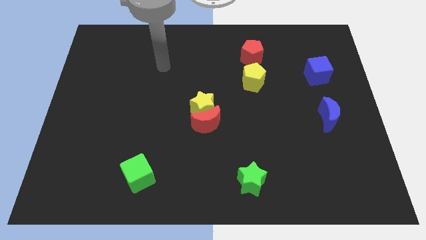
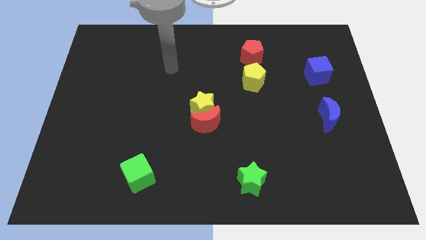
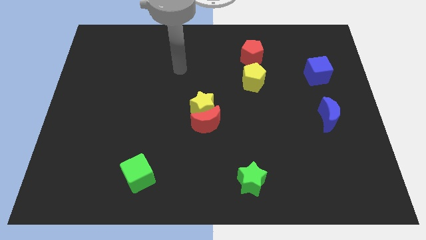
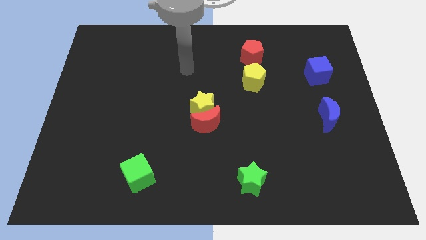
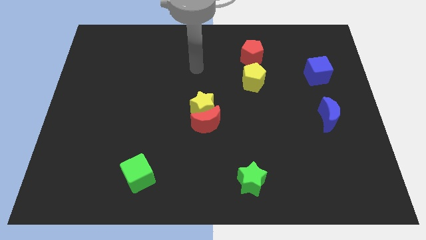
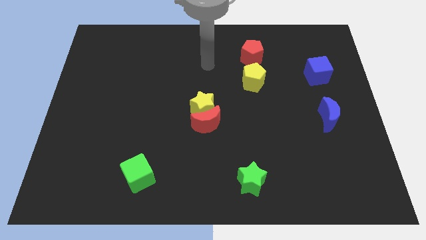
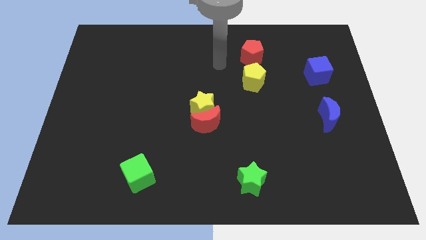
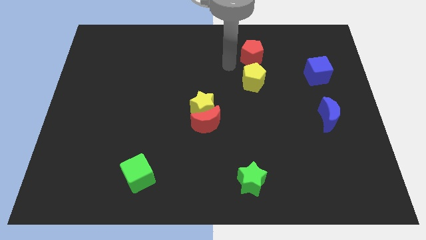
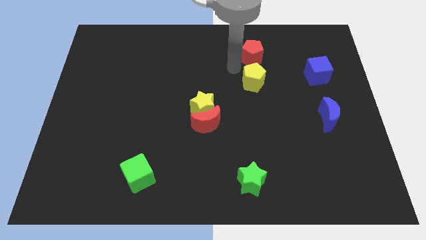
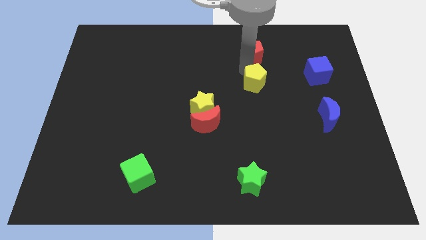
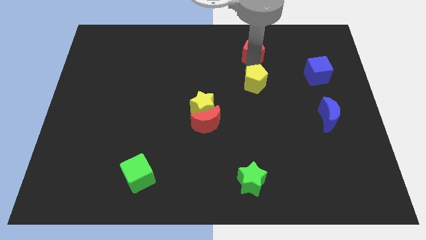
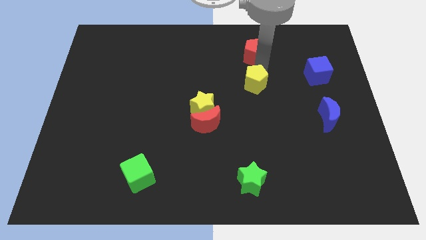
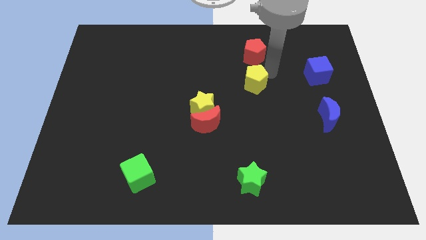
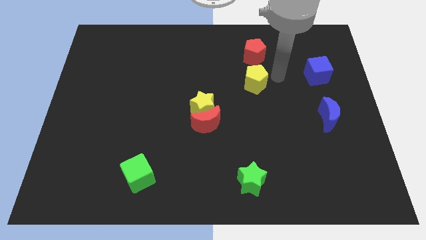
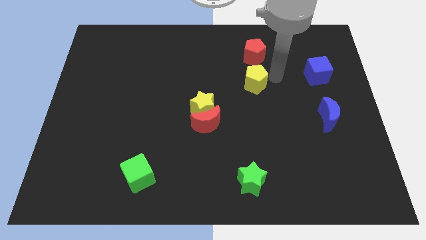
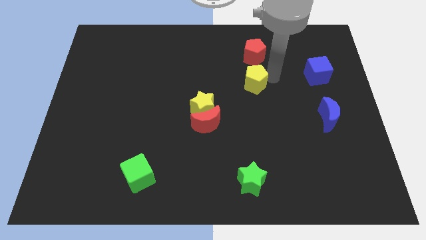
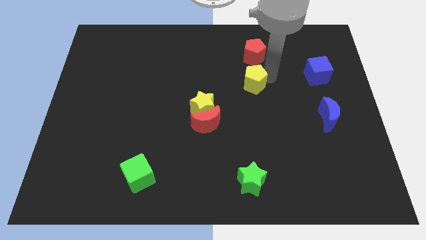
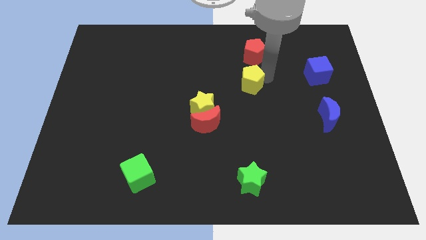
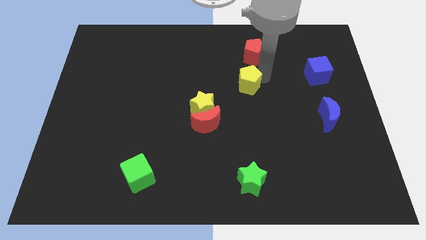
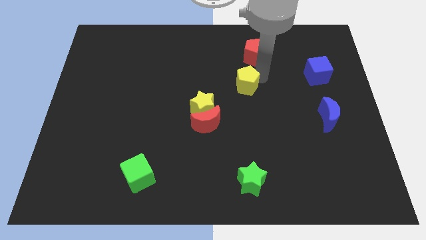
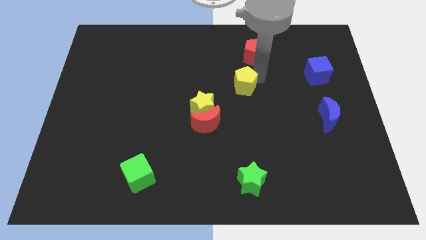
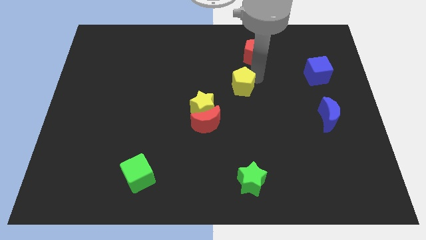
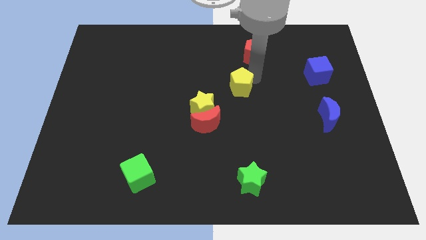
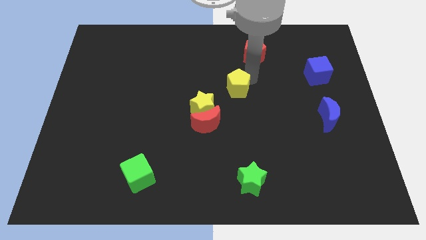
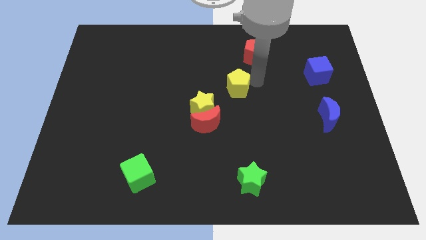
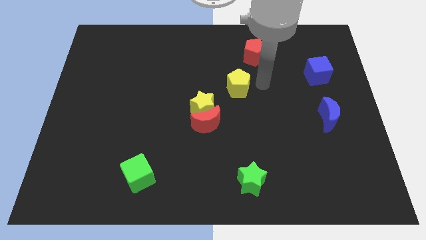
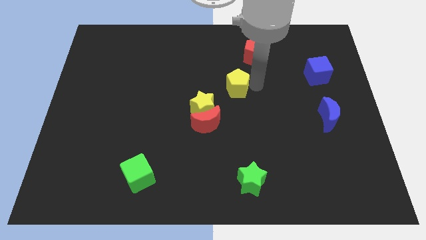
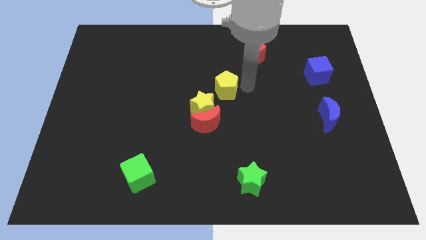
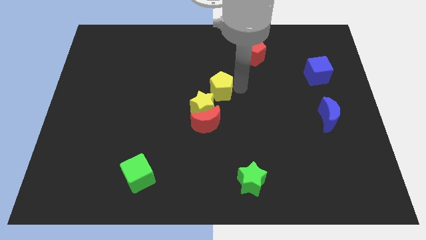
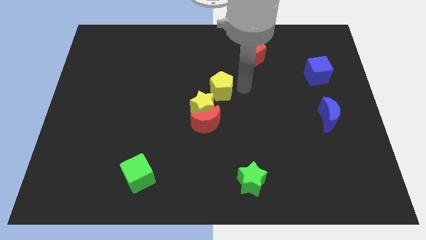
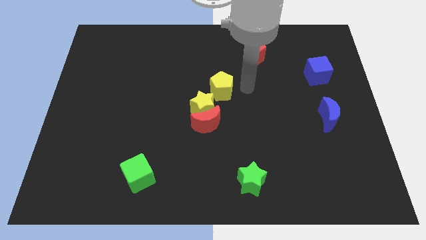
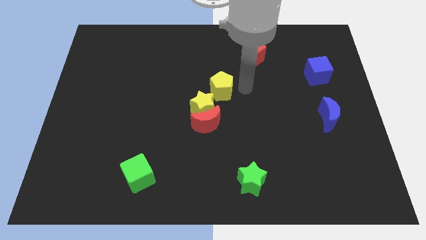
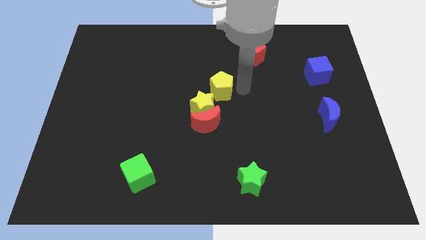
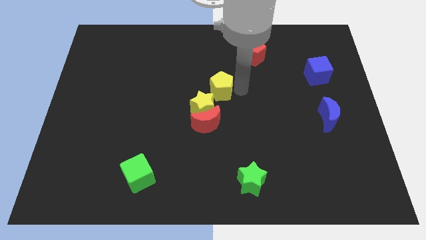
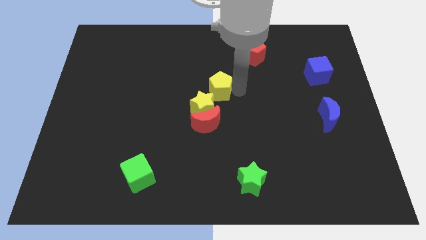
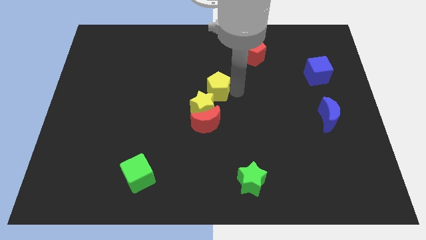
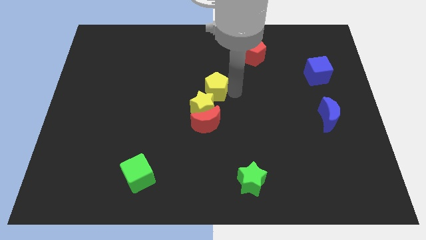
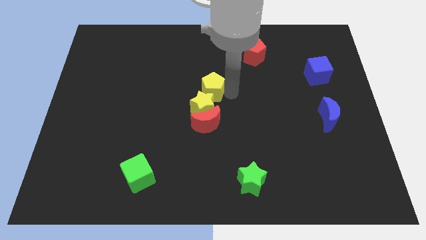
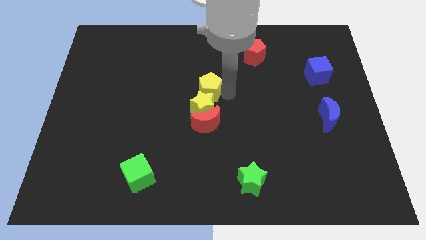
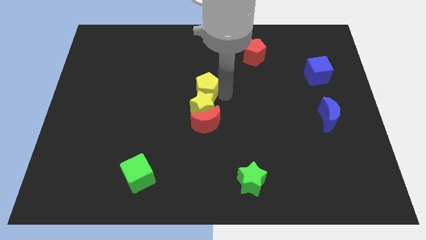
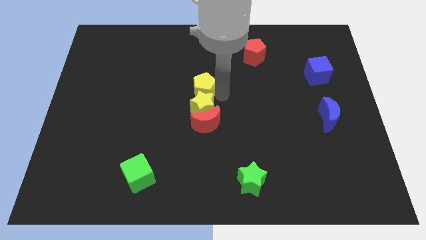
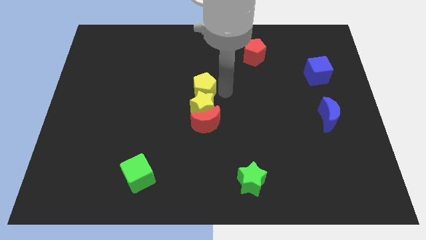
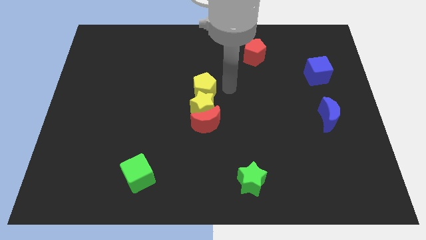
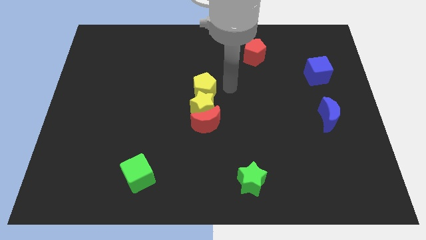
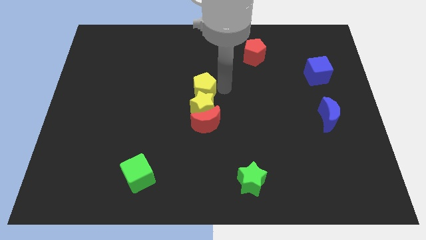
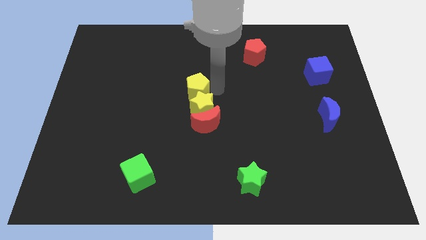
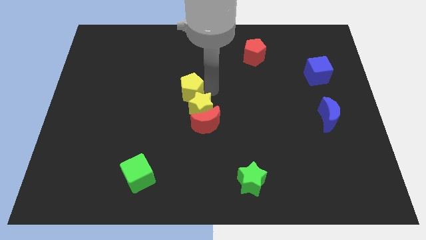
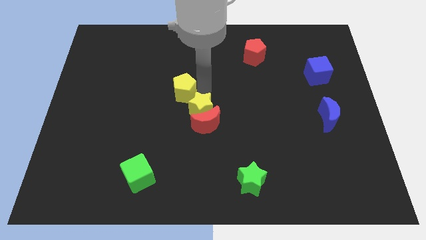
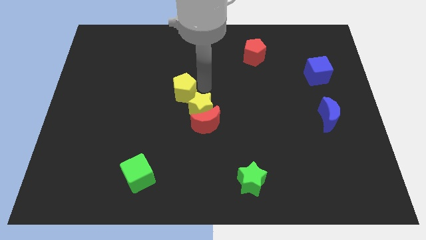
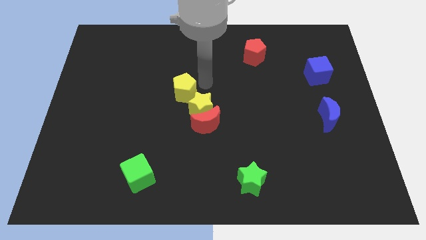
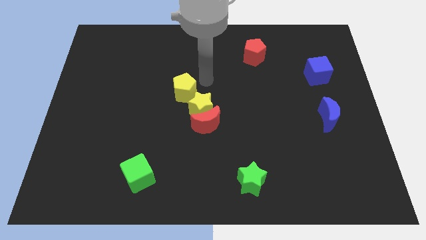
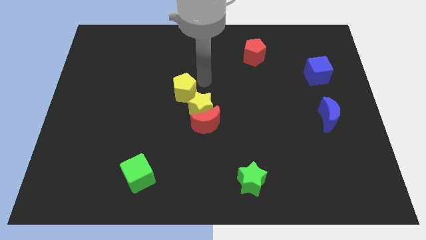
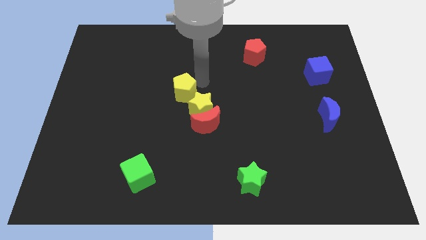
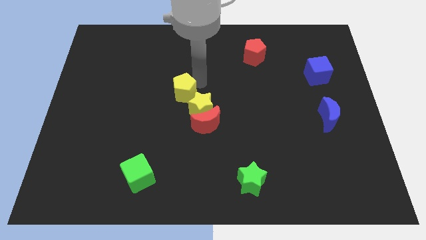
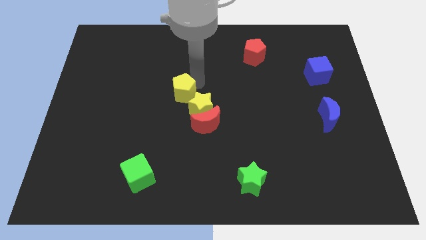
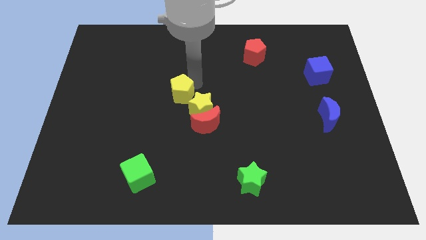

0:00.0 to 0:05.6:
move the yellow pentagon left of the yellow star

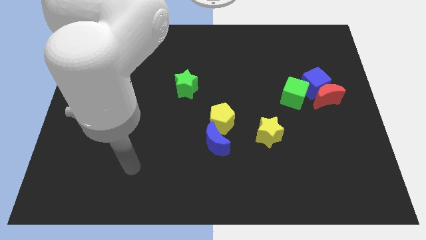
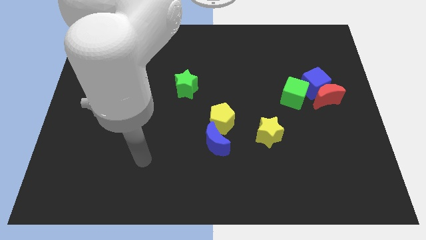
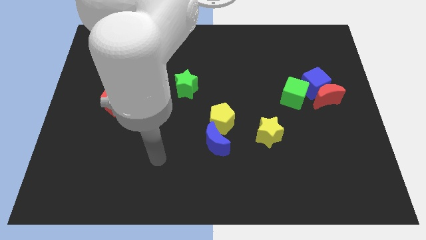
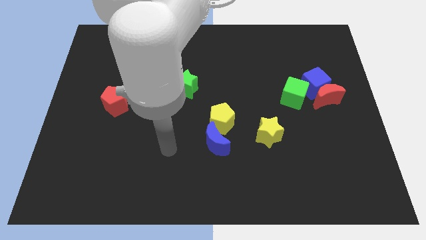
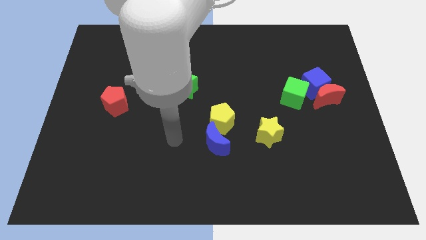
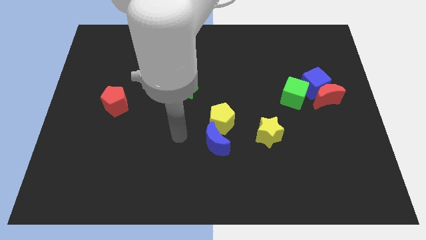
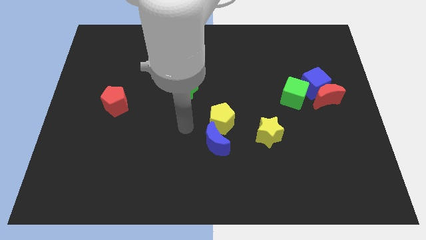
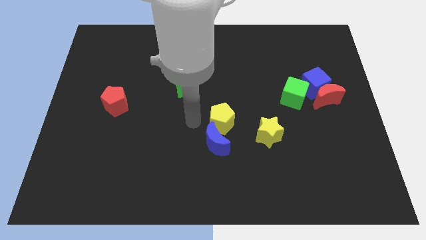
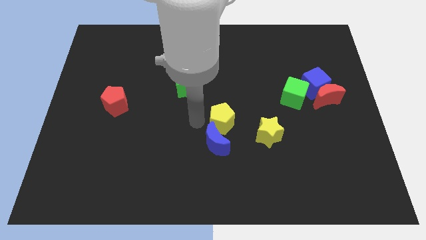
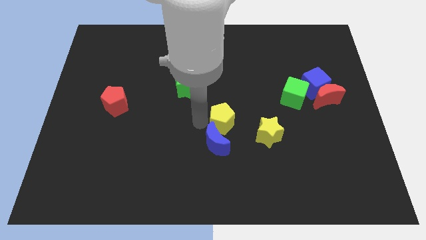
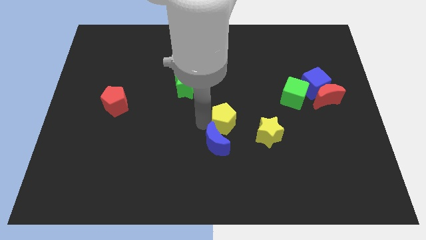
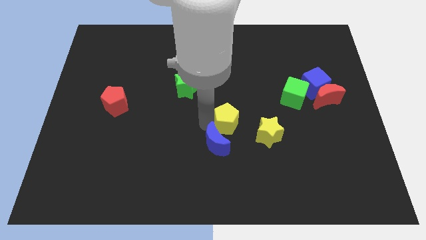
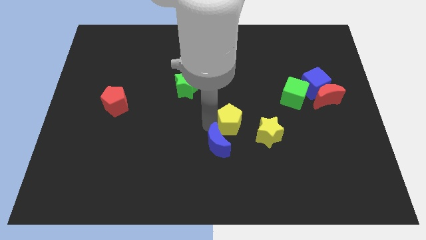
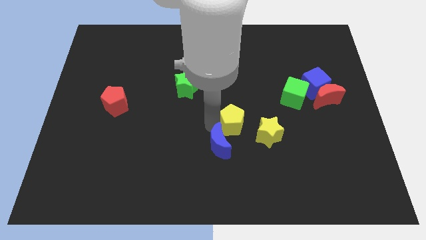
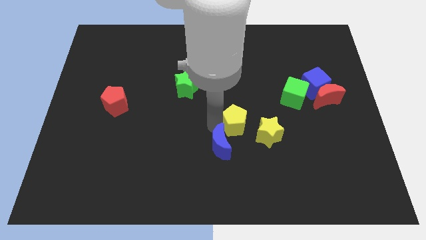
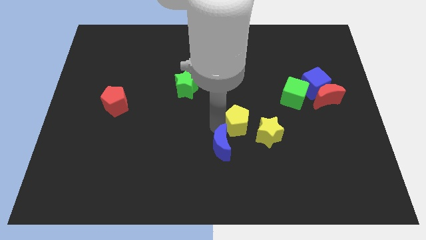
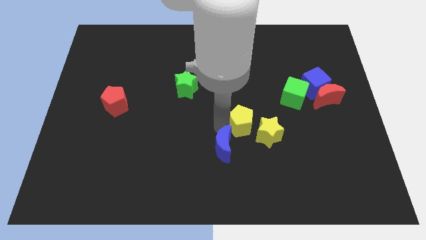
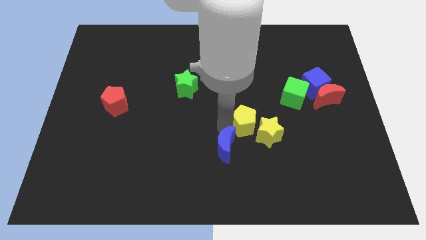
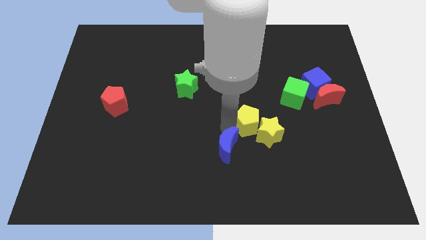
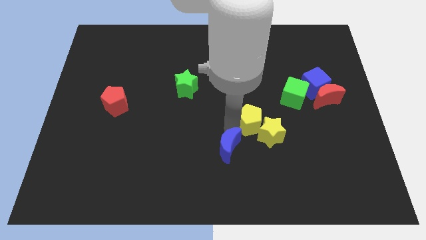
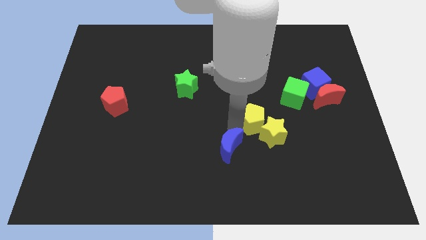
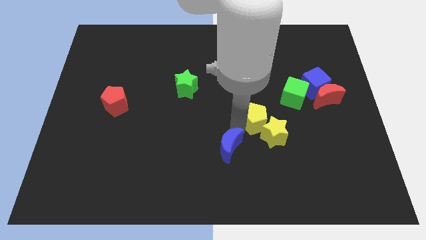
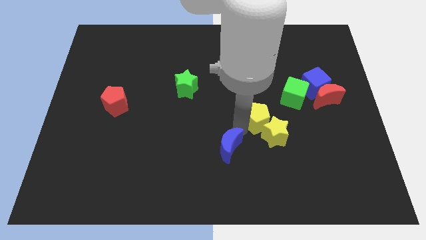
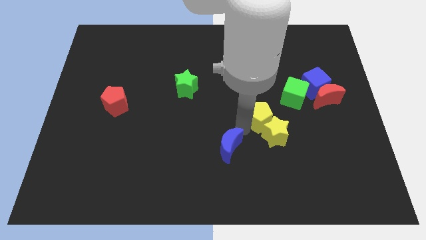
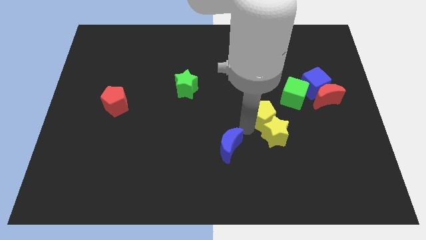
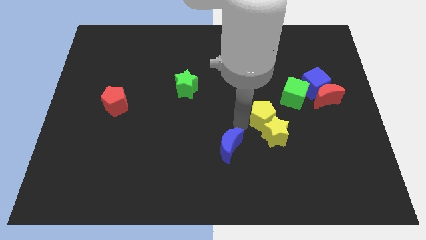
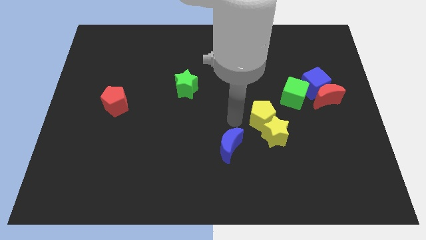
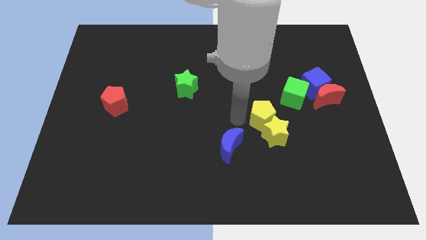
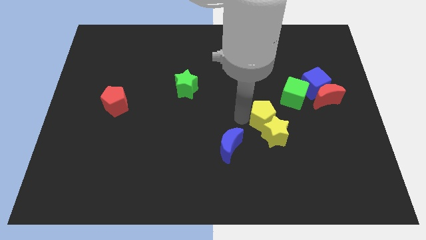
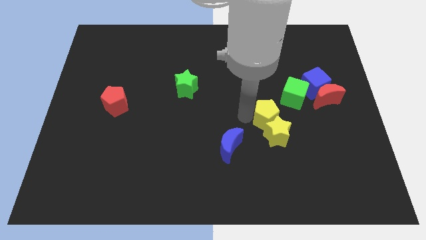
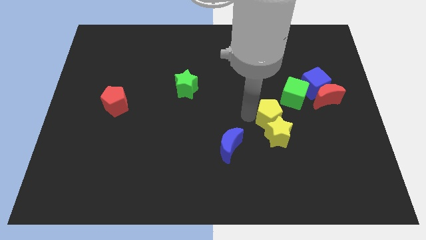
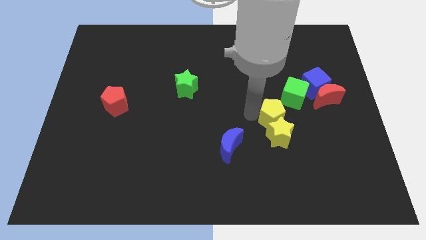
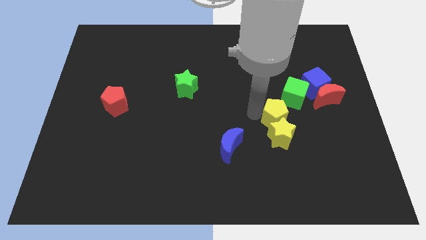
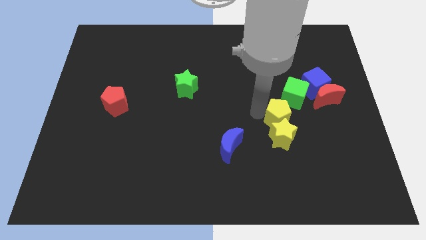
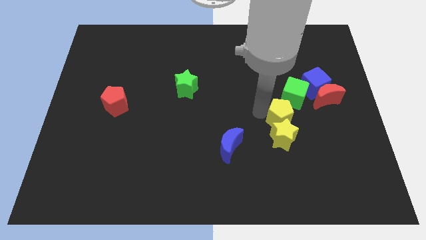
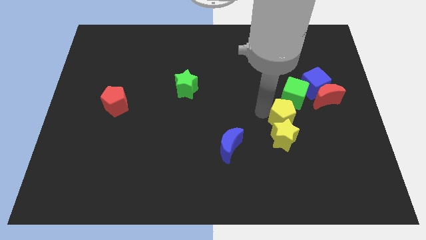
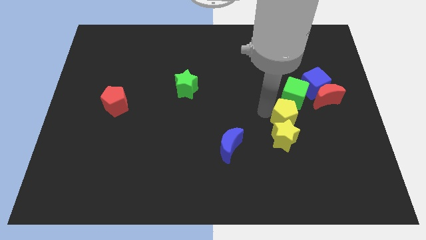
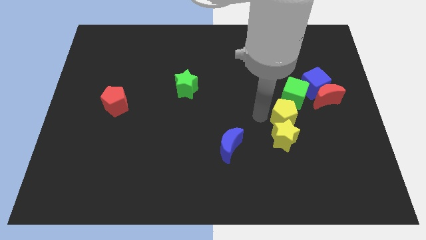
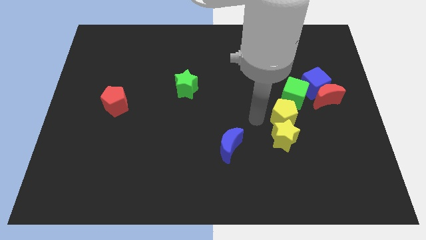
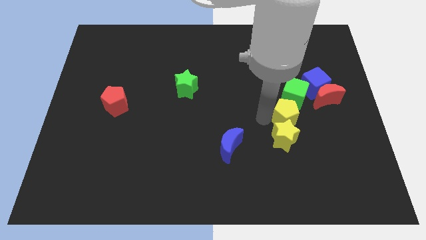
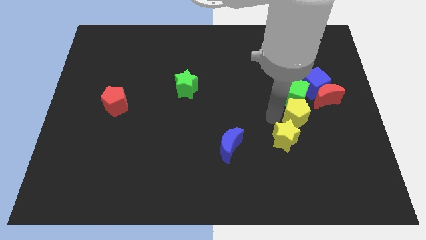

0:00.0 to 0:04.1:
put the yellow pentagon to the bottom right side of the green cube
